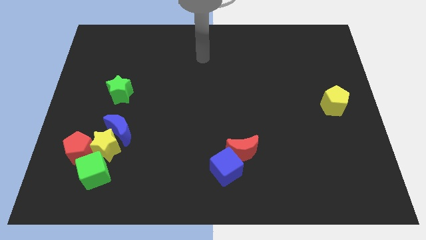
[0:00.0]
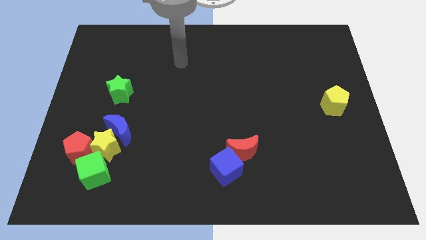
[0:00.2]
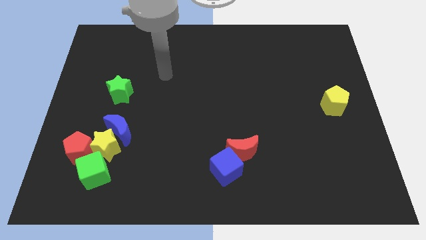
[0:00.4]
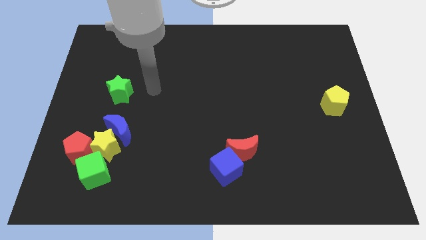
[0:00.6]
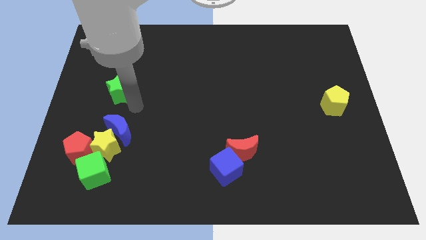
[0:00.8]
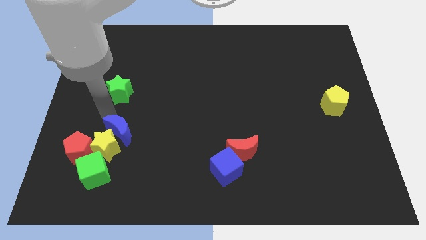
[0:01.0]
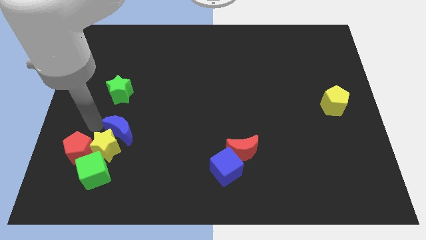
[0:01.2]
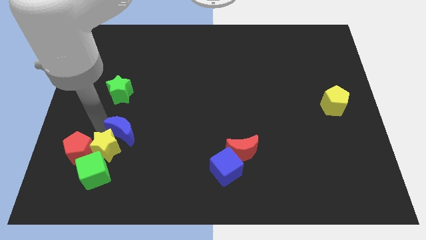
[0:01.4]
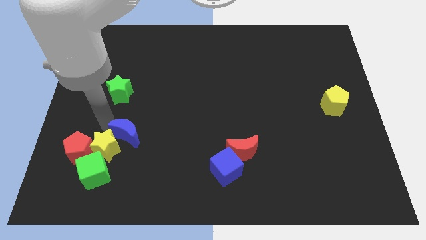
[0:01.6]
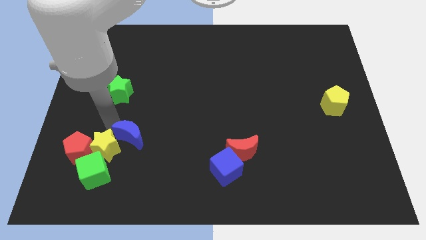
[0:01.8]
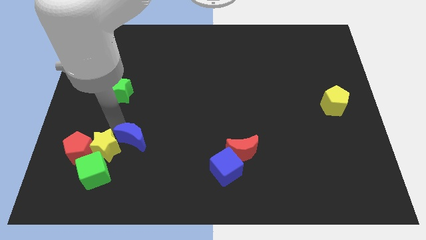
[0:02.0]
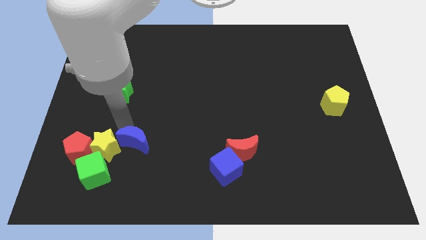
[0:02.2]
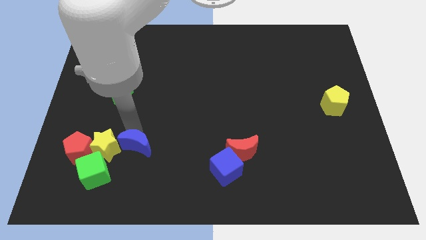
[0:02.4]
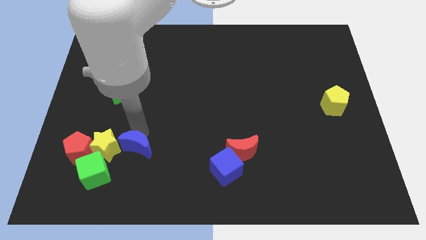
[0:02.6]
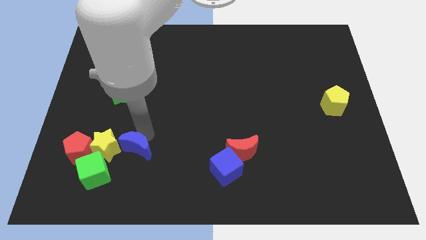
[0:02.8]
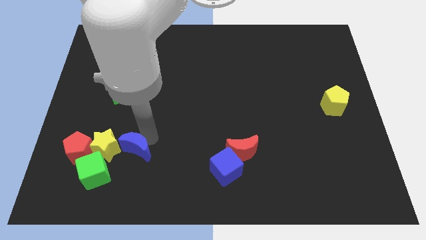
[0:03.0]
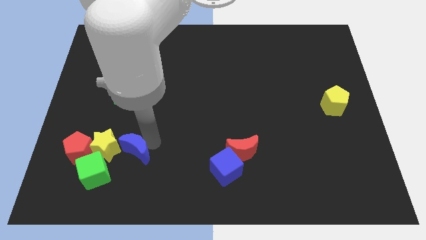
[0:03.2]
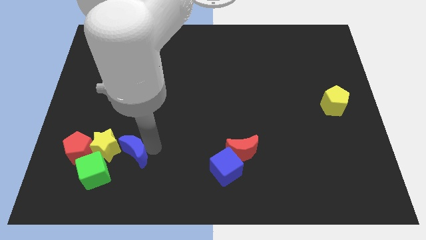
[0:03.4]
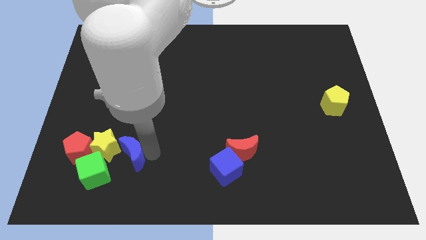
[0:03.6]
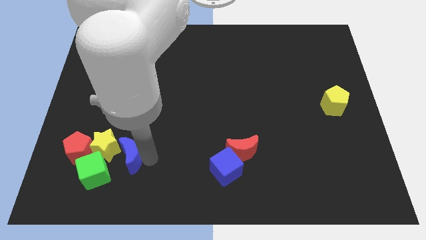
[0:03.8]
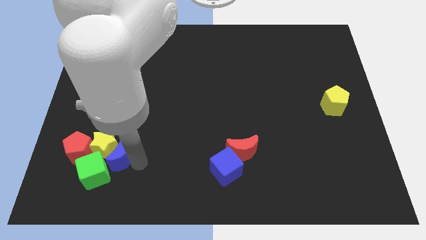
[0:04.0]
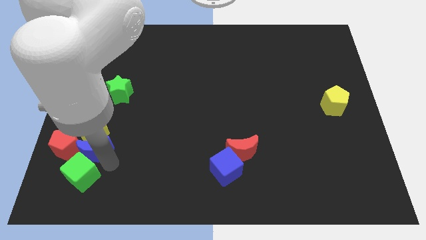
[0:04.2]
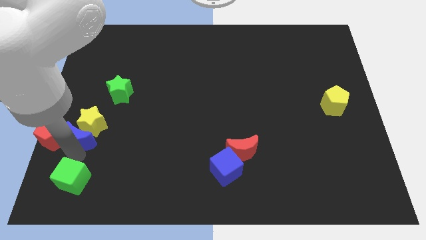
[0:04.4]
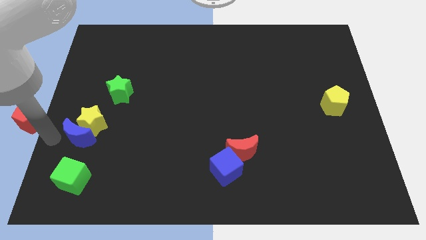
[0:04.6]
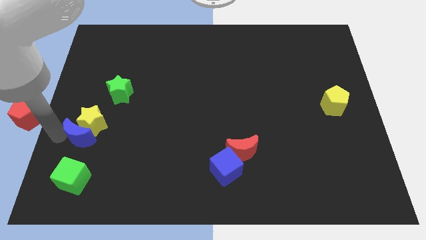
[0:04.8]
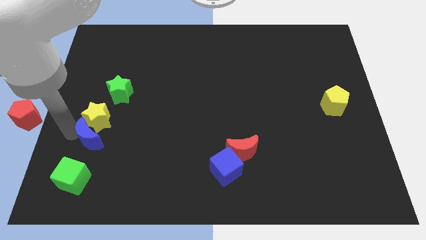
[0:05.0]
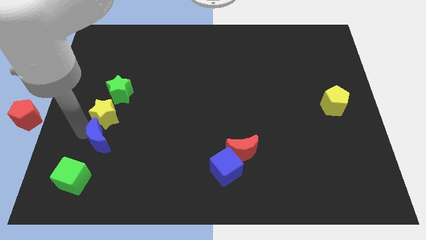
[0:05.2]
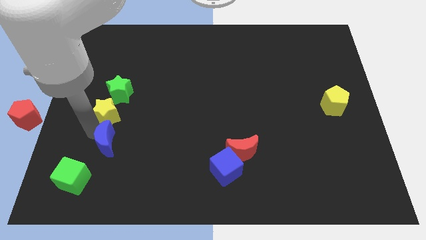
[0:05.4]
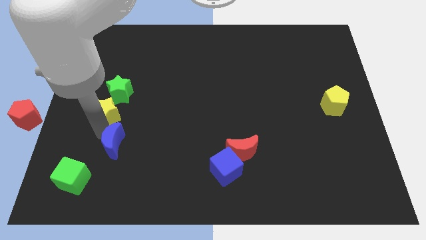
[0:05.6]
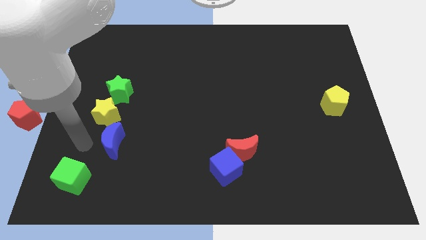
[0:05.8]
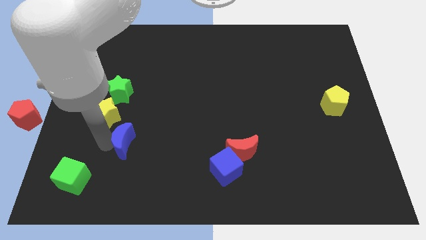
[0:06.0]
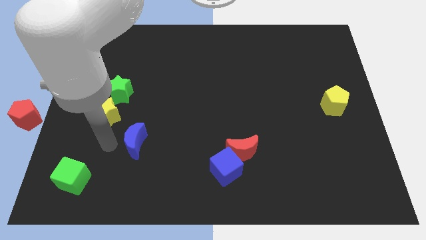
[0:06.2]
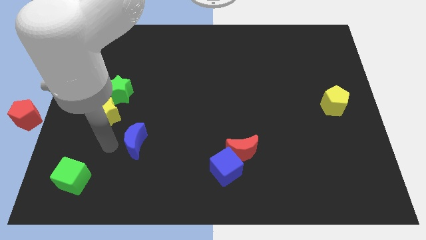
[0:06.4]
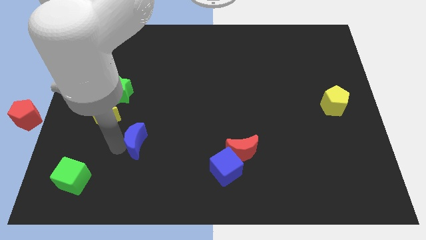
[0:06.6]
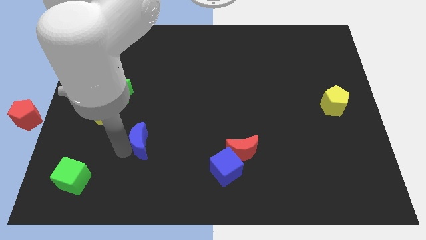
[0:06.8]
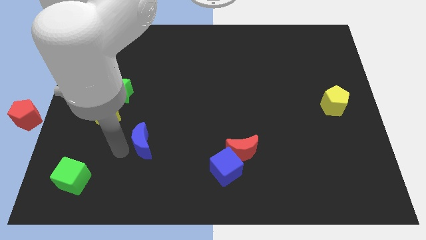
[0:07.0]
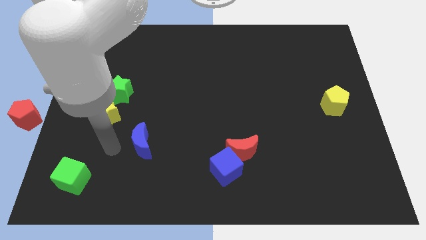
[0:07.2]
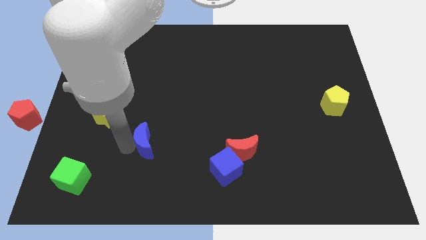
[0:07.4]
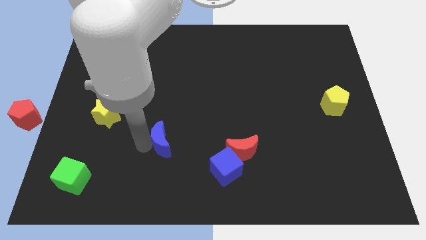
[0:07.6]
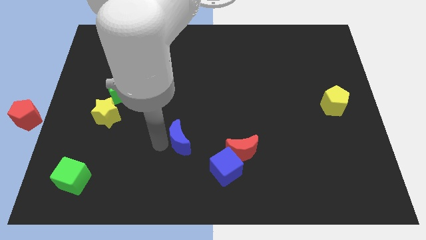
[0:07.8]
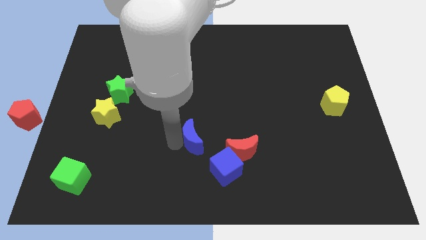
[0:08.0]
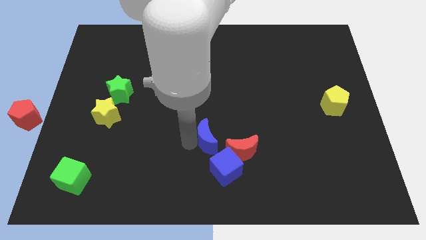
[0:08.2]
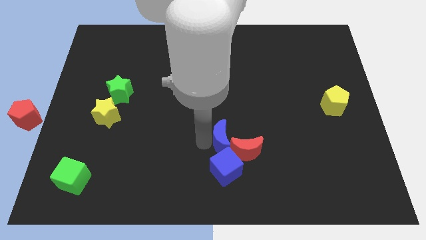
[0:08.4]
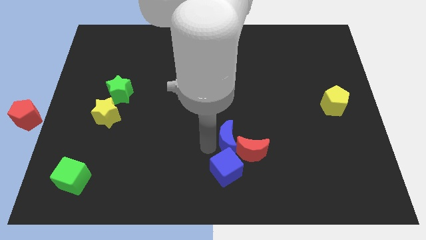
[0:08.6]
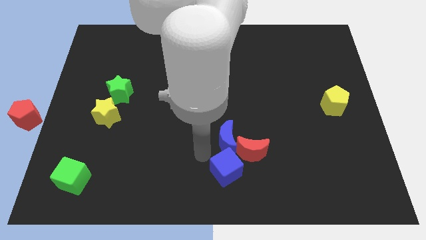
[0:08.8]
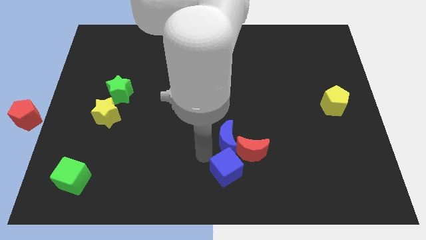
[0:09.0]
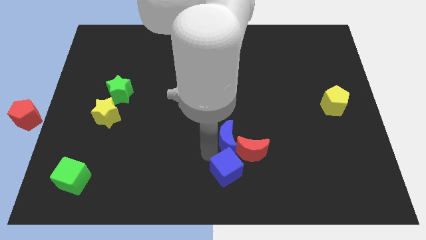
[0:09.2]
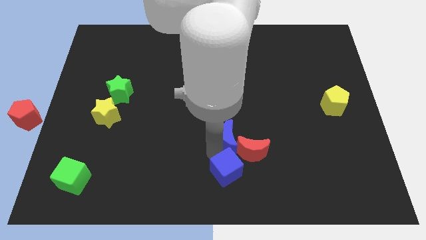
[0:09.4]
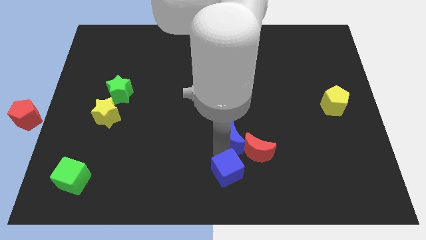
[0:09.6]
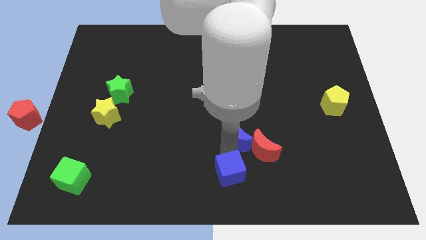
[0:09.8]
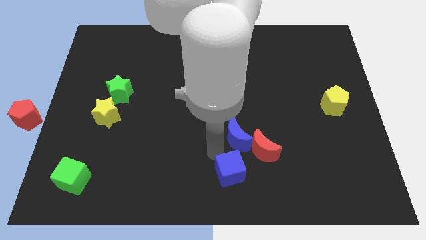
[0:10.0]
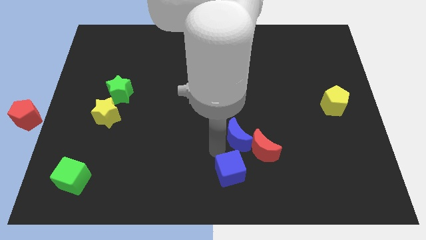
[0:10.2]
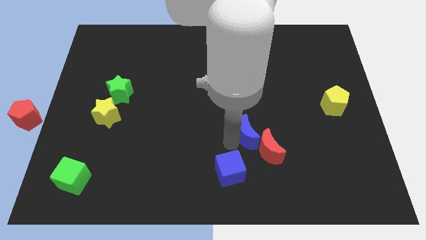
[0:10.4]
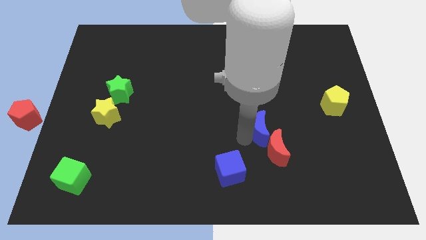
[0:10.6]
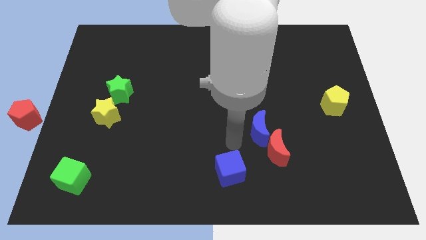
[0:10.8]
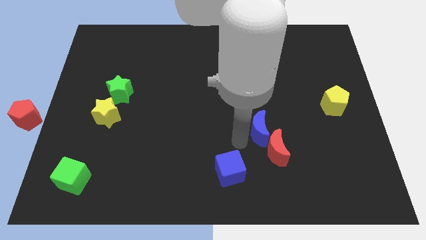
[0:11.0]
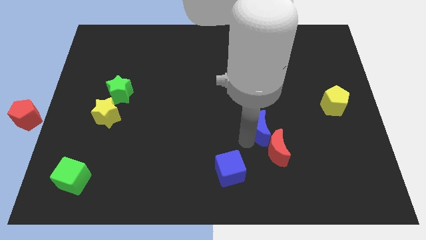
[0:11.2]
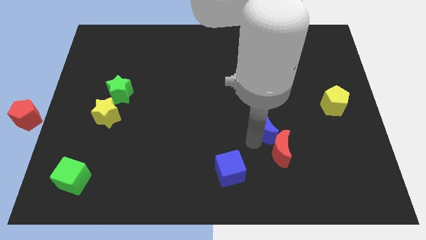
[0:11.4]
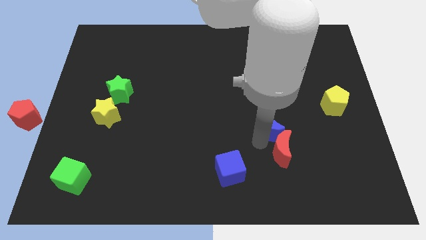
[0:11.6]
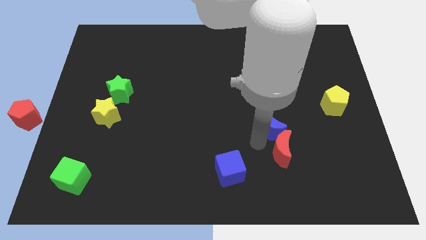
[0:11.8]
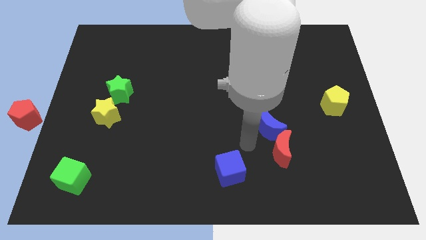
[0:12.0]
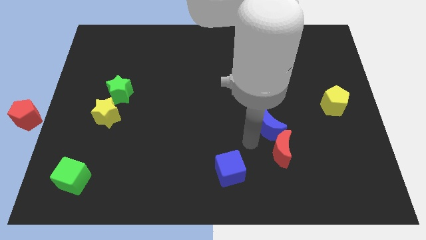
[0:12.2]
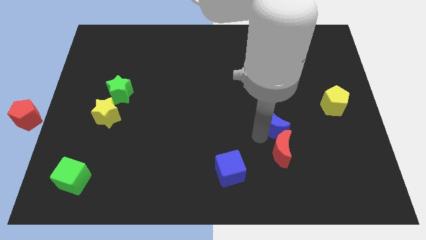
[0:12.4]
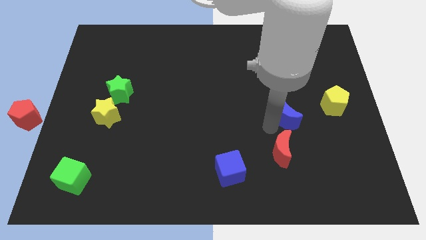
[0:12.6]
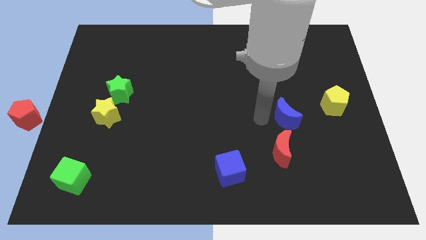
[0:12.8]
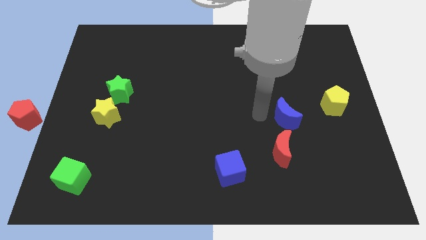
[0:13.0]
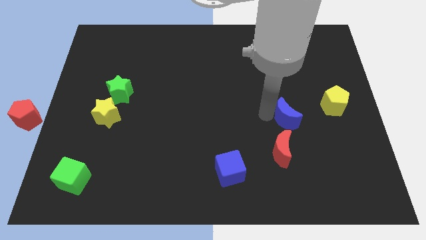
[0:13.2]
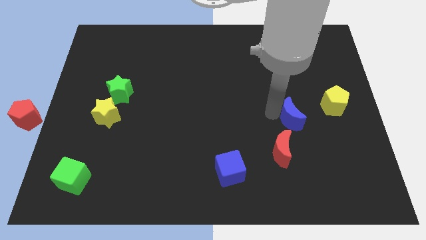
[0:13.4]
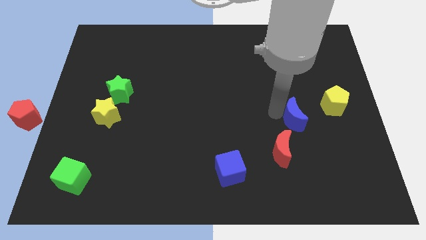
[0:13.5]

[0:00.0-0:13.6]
slide the blue moon diagonally down and to the left of the yellow pentagon
